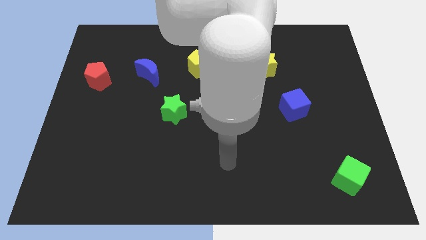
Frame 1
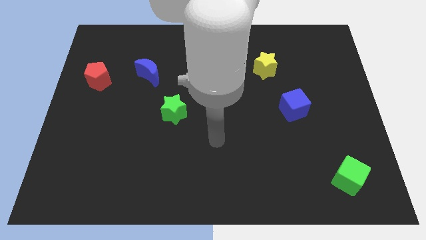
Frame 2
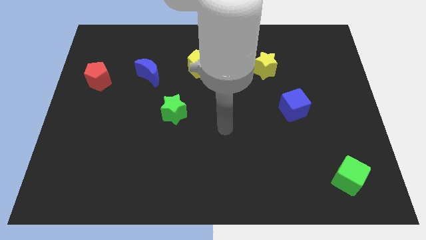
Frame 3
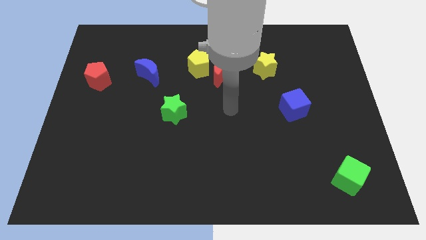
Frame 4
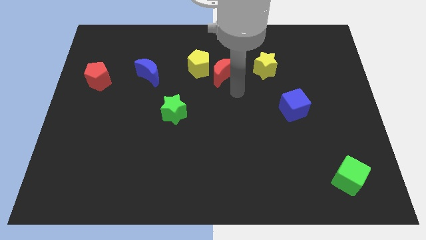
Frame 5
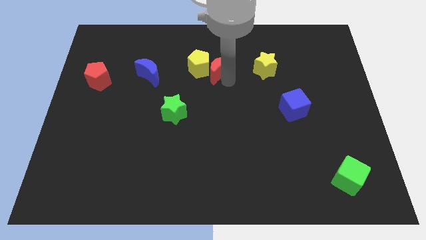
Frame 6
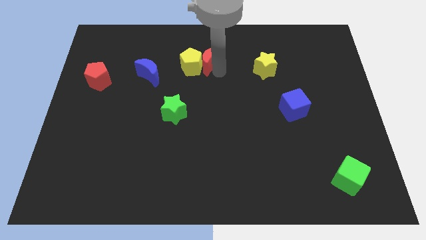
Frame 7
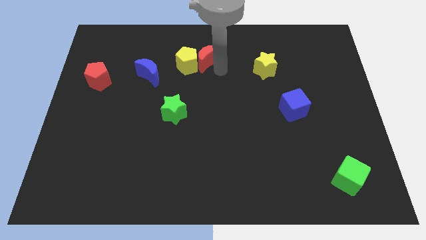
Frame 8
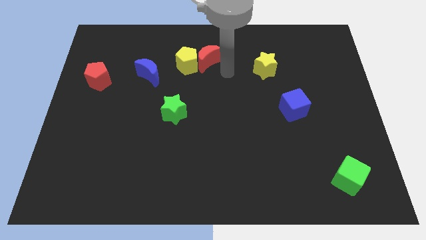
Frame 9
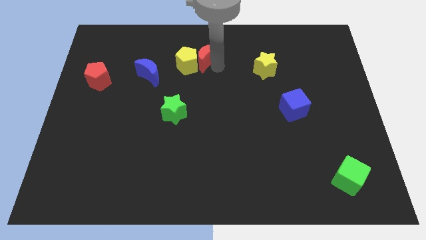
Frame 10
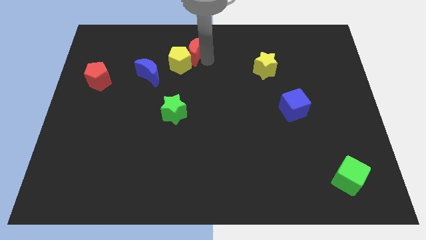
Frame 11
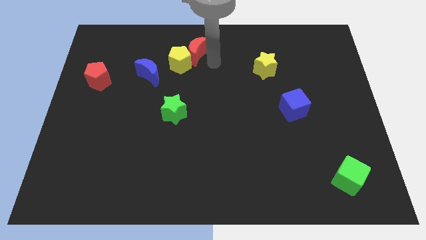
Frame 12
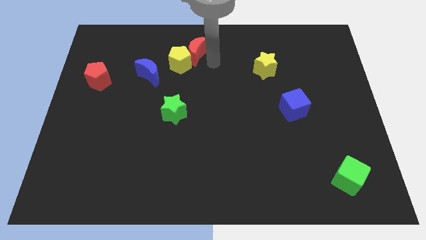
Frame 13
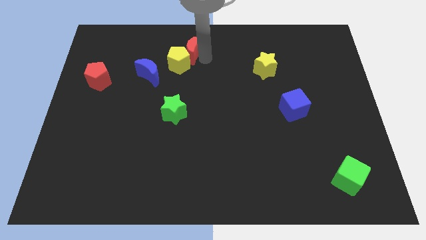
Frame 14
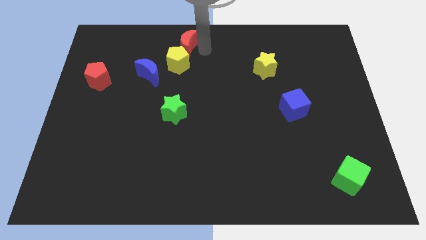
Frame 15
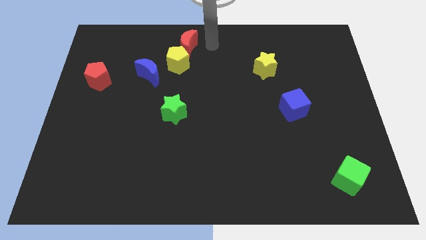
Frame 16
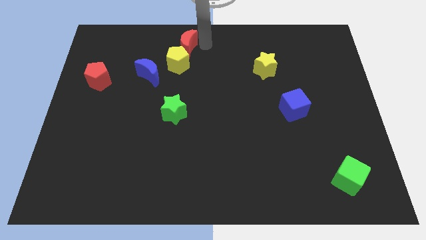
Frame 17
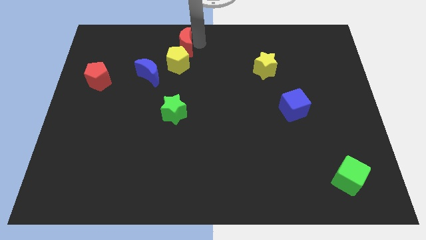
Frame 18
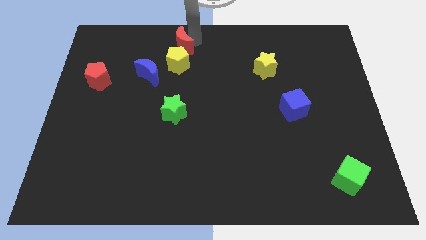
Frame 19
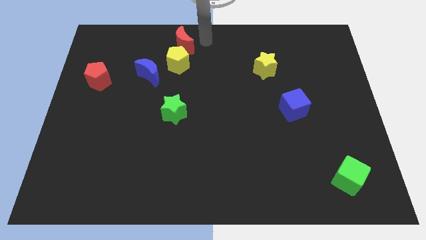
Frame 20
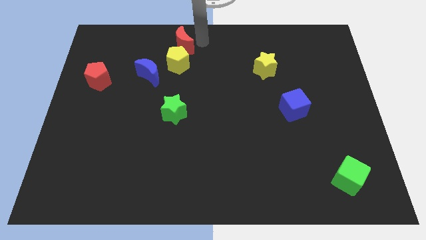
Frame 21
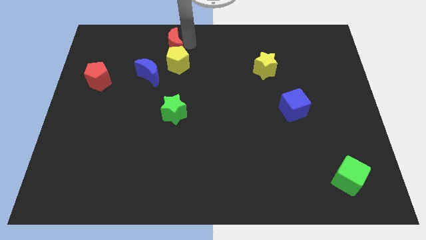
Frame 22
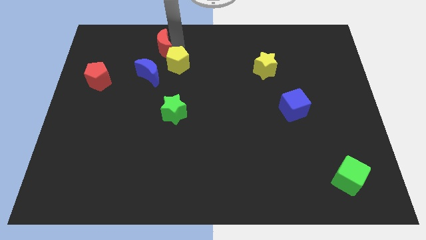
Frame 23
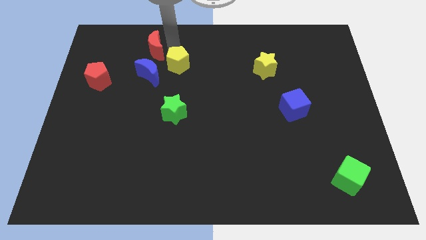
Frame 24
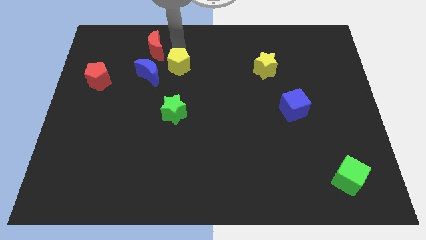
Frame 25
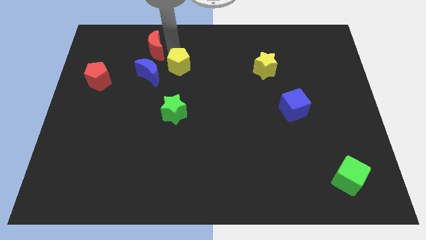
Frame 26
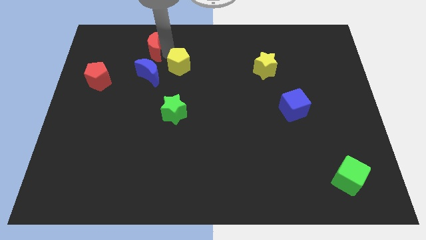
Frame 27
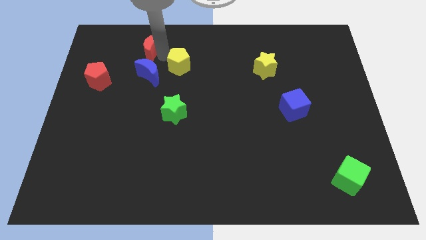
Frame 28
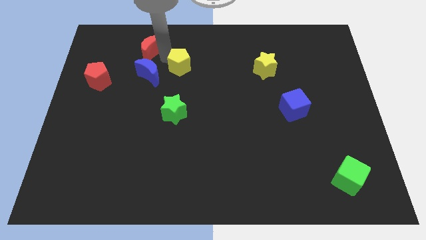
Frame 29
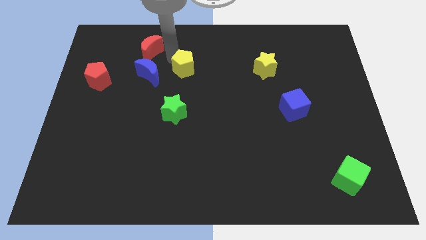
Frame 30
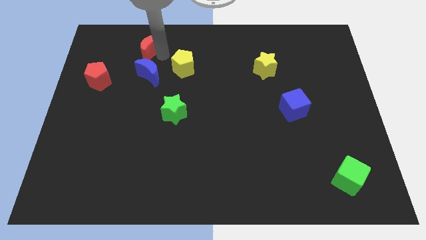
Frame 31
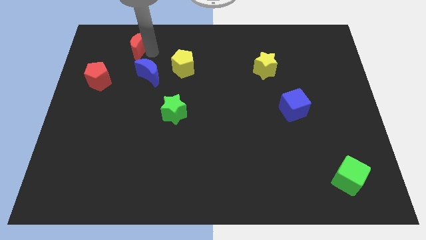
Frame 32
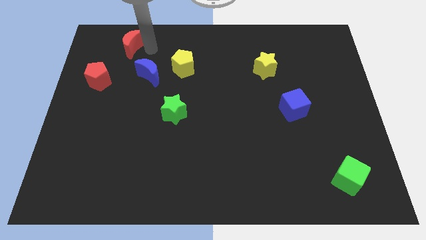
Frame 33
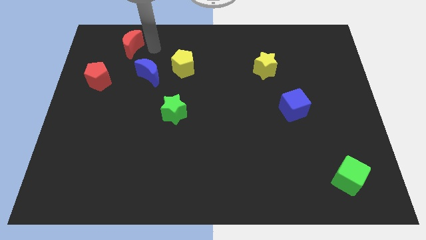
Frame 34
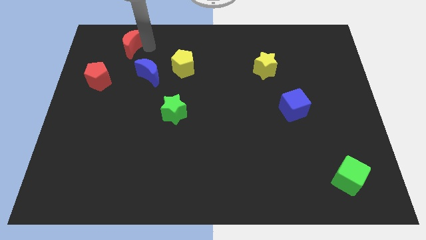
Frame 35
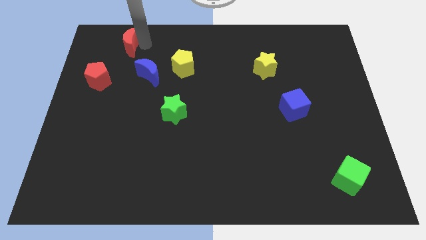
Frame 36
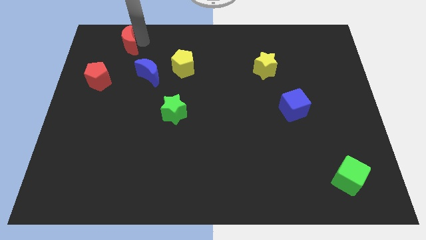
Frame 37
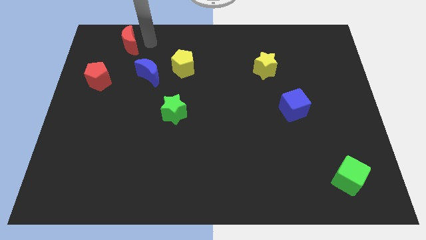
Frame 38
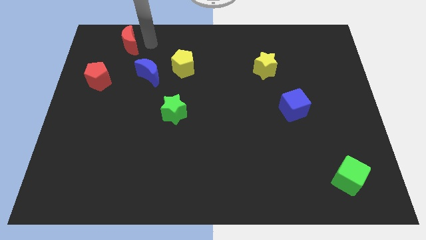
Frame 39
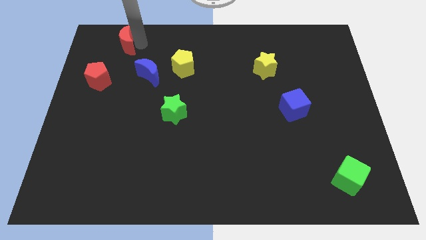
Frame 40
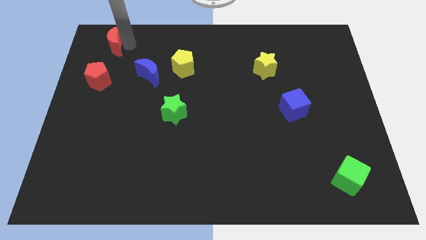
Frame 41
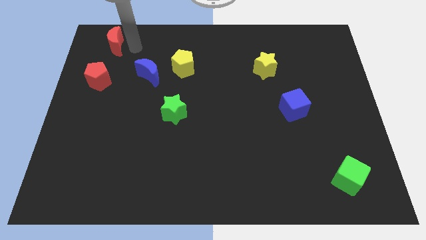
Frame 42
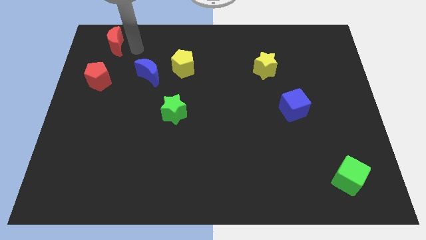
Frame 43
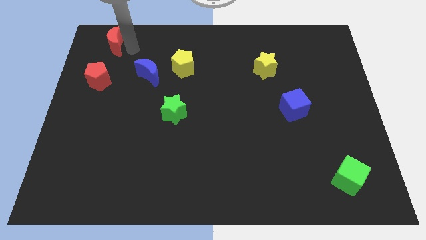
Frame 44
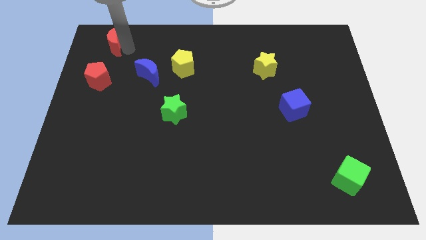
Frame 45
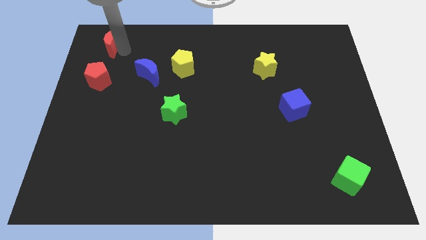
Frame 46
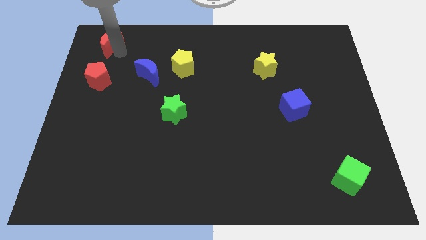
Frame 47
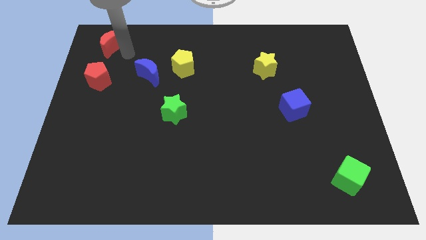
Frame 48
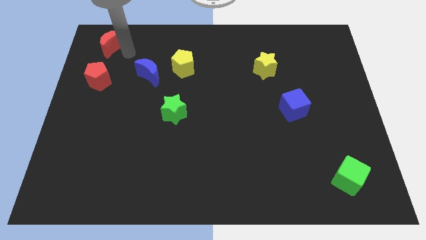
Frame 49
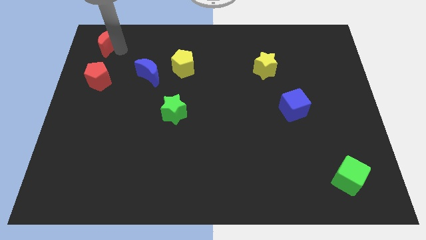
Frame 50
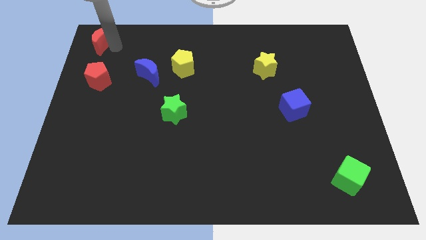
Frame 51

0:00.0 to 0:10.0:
slide the red moon to the top left of the board

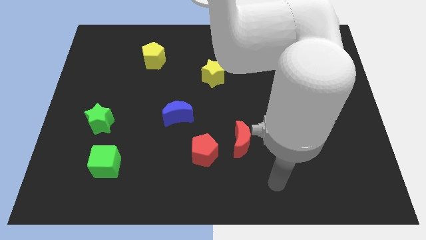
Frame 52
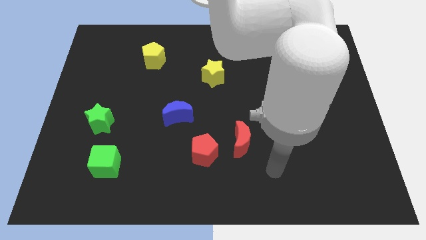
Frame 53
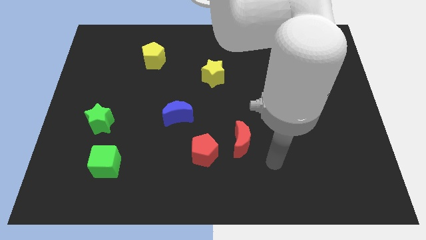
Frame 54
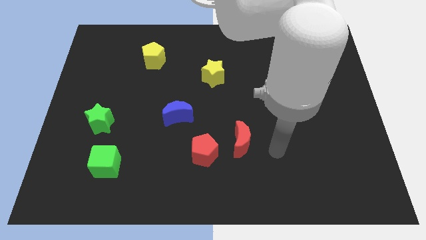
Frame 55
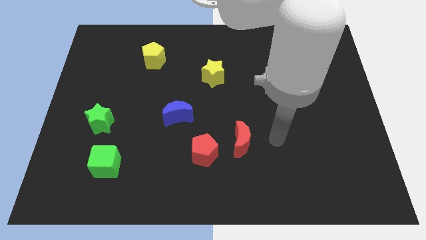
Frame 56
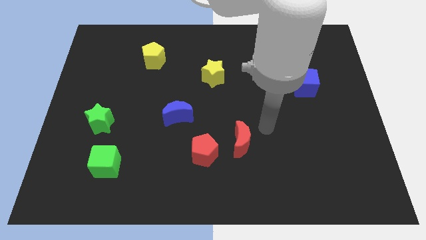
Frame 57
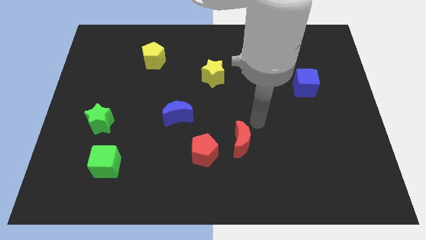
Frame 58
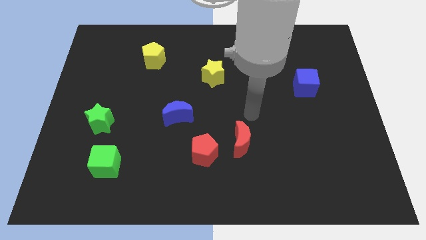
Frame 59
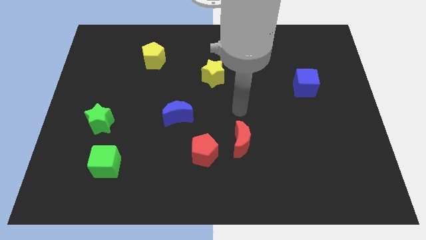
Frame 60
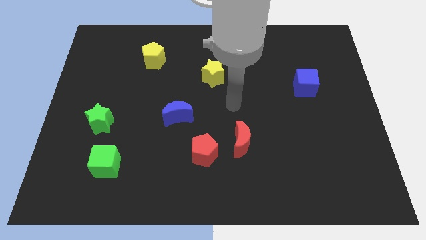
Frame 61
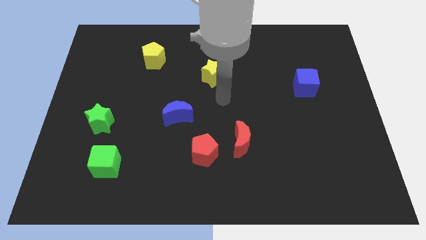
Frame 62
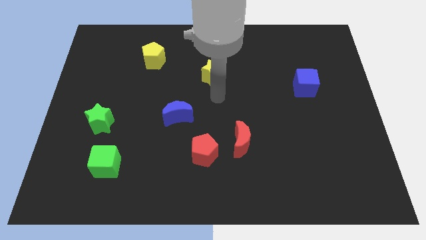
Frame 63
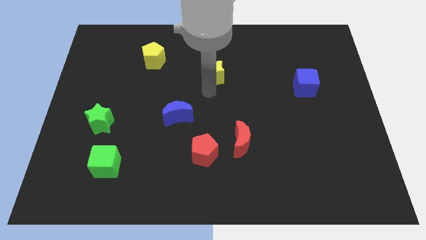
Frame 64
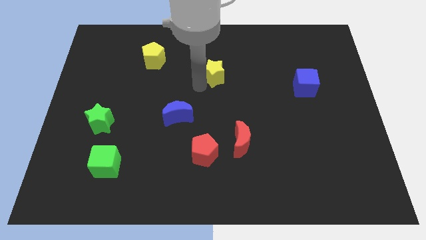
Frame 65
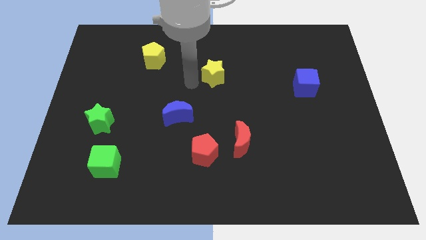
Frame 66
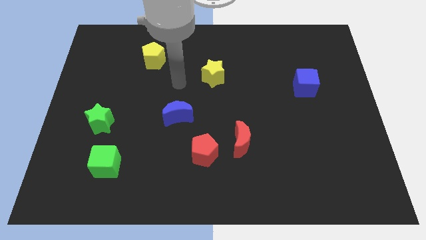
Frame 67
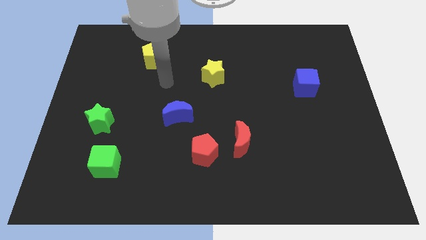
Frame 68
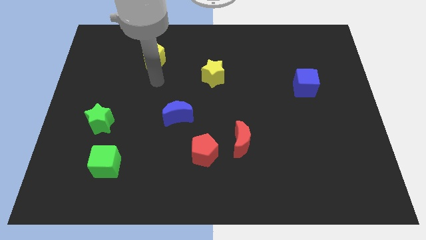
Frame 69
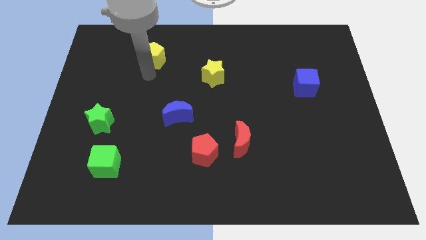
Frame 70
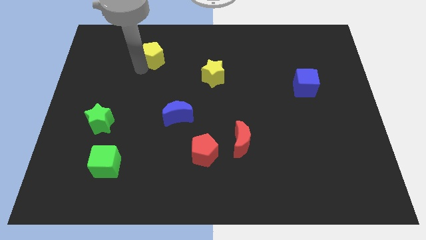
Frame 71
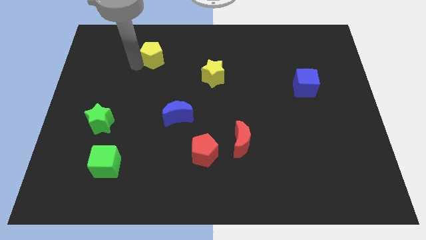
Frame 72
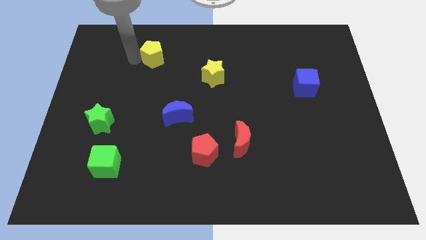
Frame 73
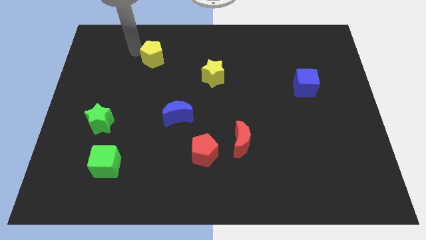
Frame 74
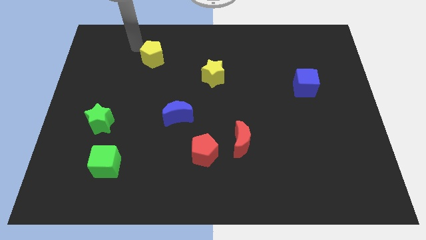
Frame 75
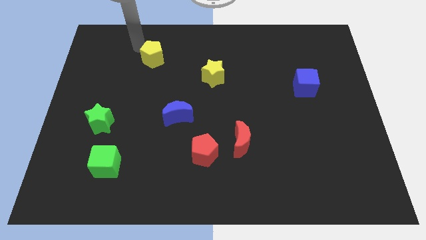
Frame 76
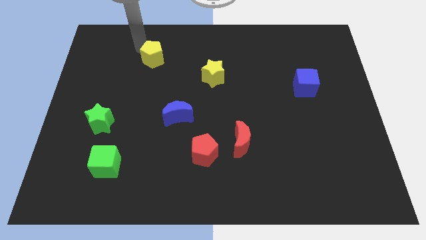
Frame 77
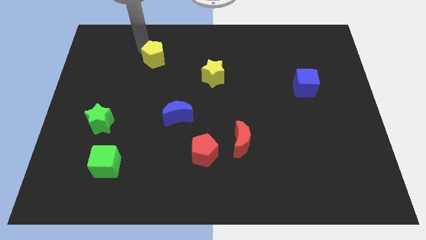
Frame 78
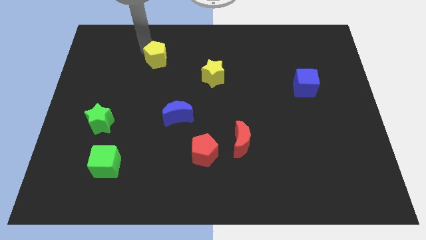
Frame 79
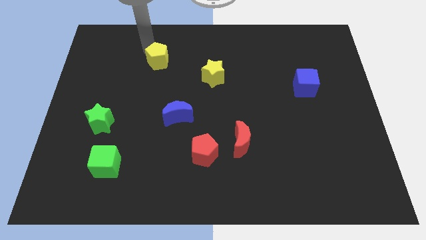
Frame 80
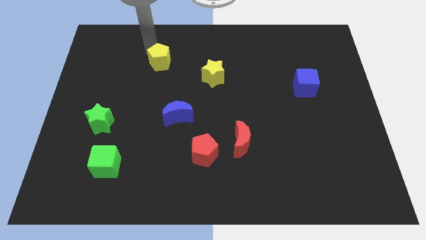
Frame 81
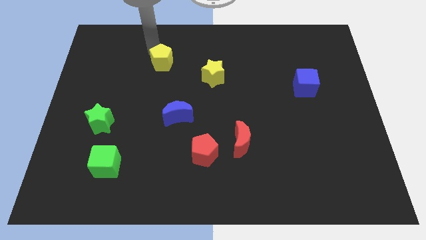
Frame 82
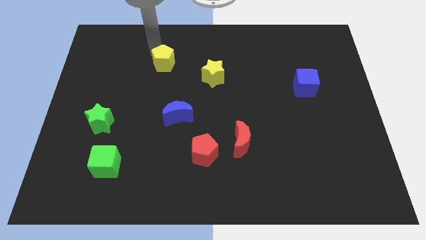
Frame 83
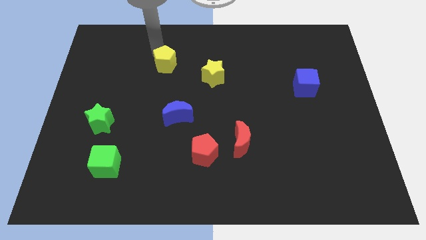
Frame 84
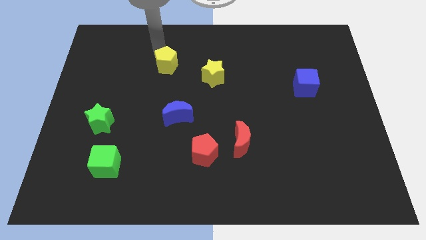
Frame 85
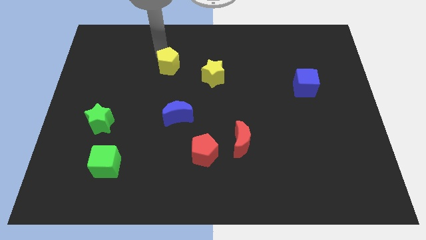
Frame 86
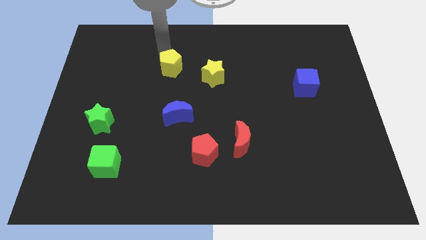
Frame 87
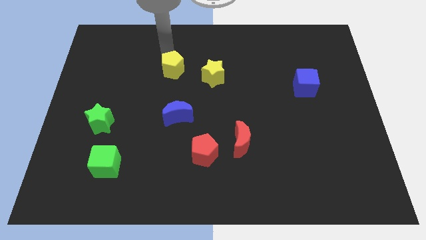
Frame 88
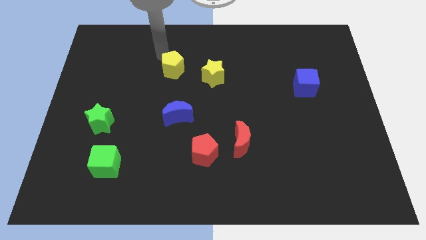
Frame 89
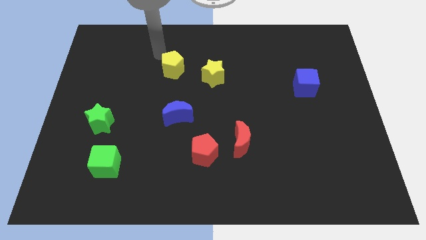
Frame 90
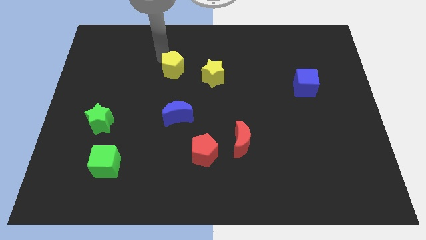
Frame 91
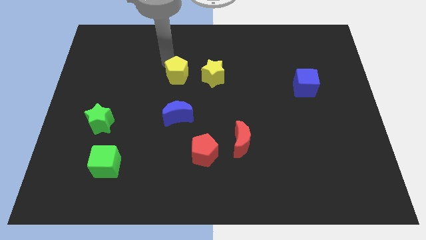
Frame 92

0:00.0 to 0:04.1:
put the yellow pentagon to the middle
